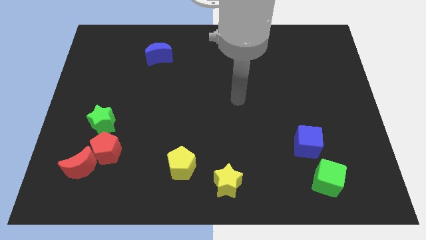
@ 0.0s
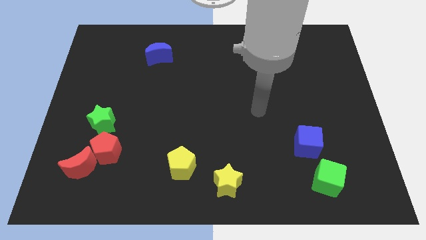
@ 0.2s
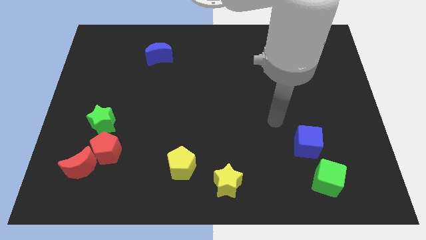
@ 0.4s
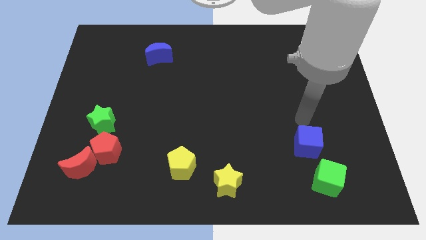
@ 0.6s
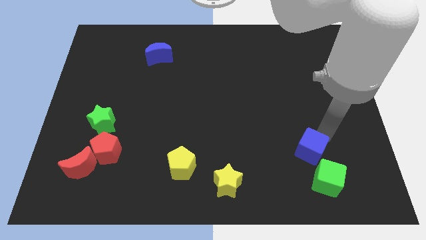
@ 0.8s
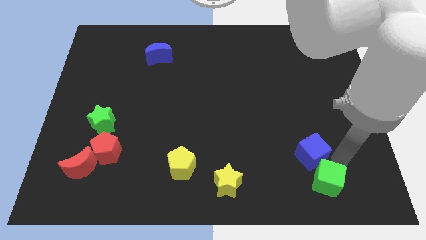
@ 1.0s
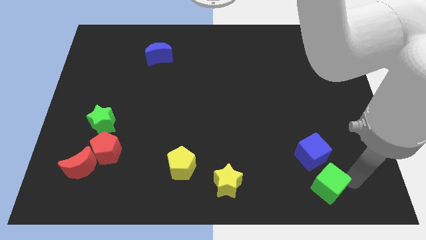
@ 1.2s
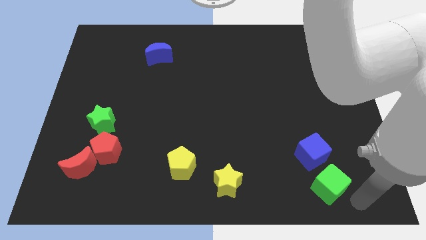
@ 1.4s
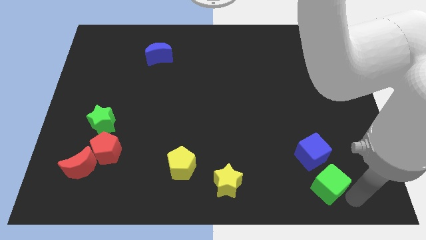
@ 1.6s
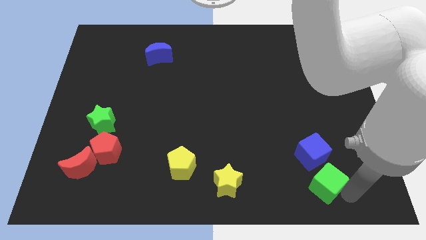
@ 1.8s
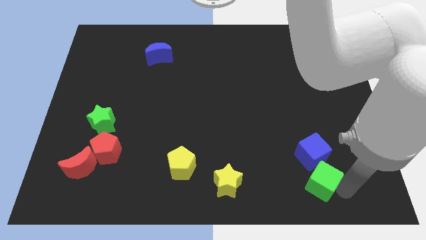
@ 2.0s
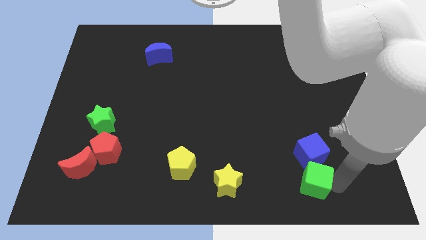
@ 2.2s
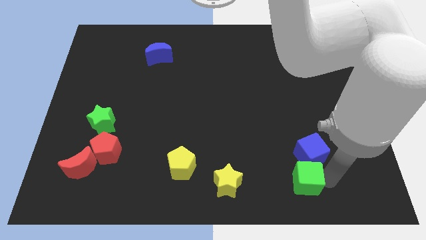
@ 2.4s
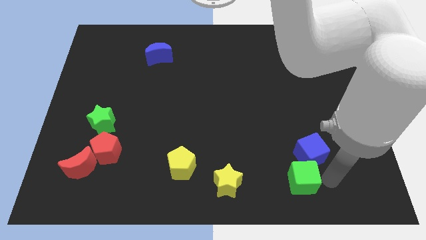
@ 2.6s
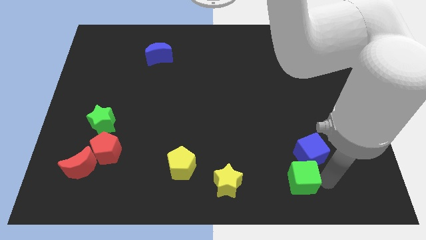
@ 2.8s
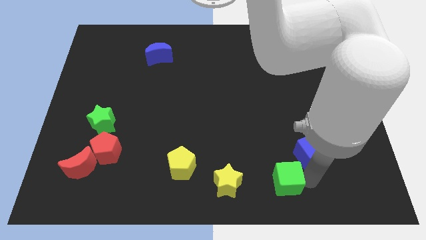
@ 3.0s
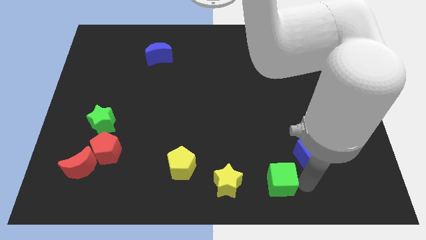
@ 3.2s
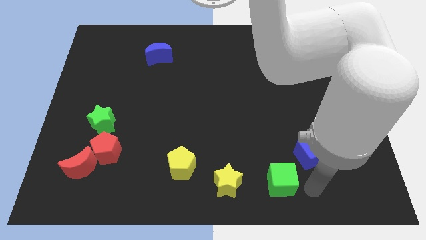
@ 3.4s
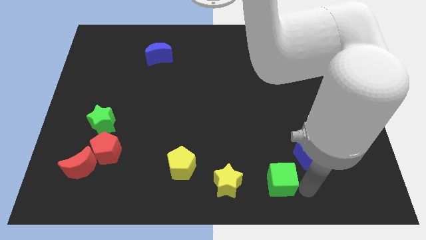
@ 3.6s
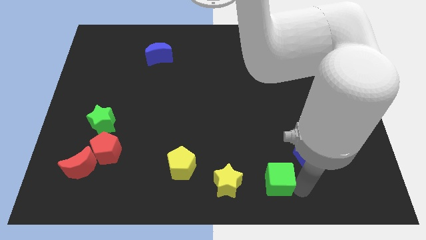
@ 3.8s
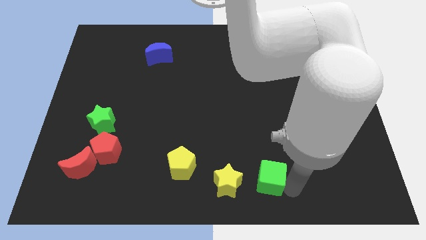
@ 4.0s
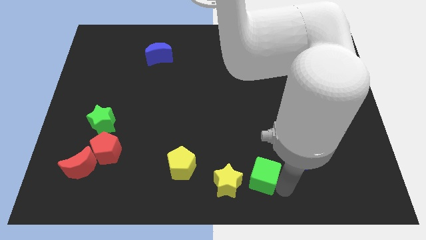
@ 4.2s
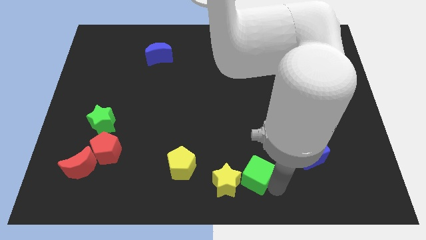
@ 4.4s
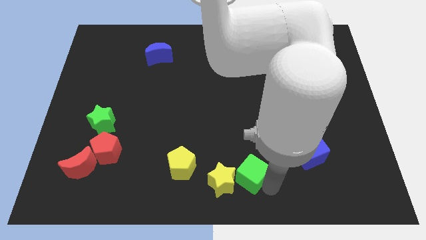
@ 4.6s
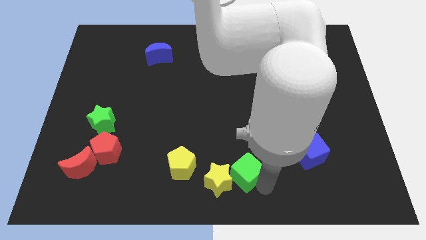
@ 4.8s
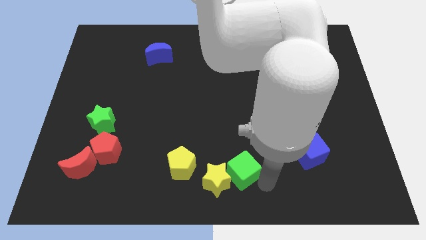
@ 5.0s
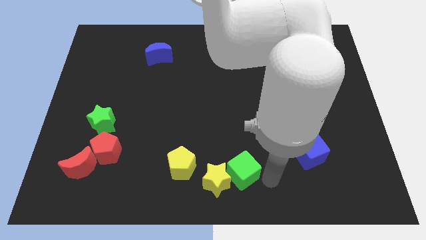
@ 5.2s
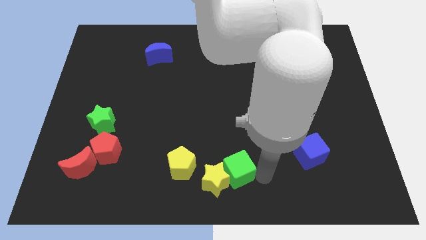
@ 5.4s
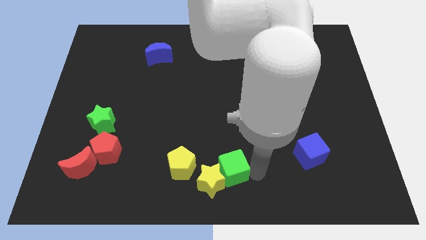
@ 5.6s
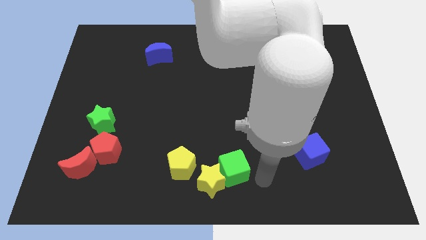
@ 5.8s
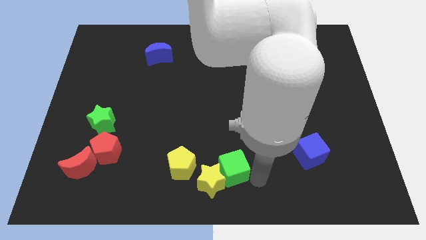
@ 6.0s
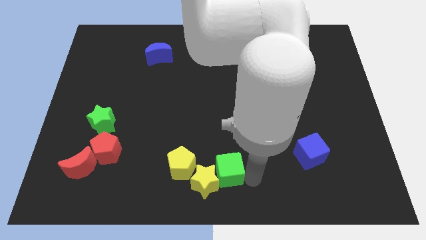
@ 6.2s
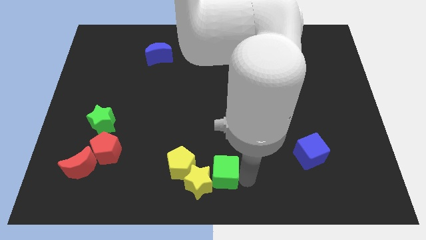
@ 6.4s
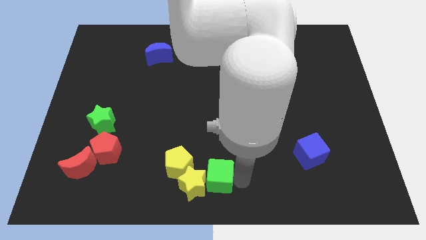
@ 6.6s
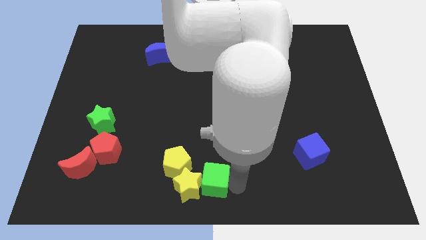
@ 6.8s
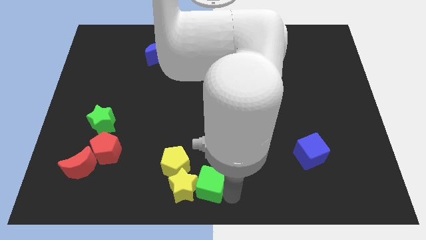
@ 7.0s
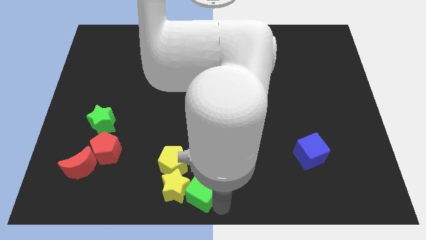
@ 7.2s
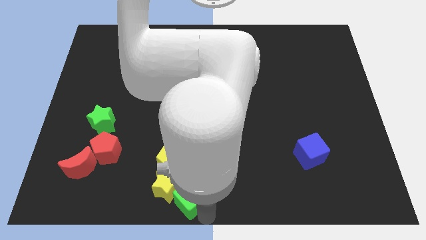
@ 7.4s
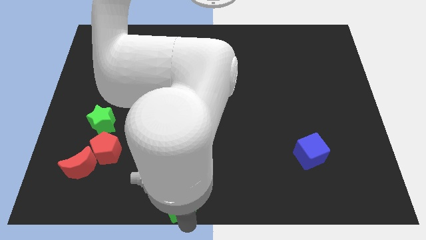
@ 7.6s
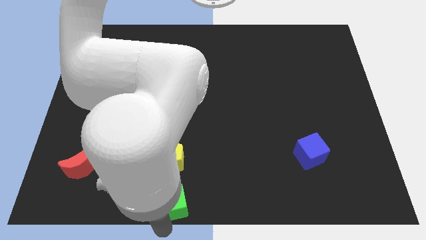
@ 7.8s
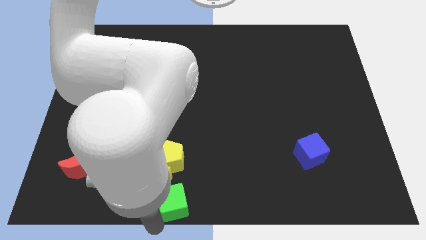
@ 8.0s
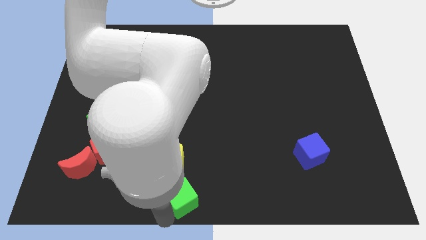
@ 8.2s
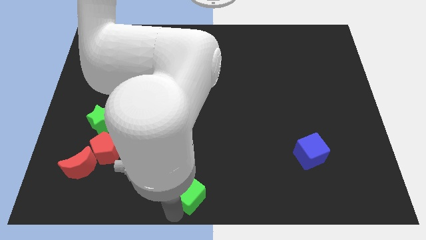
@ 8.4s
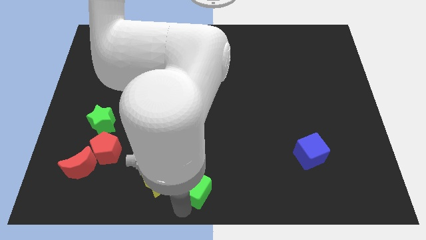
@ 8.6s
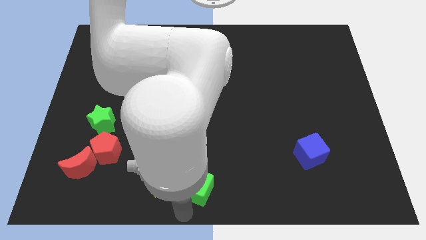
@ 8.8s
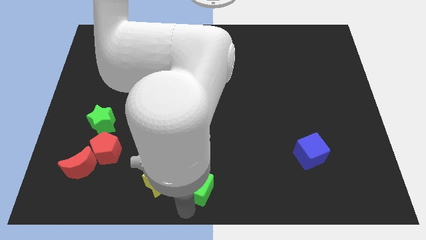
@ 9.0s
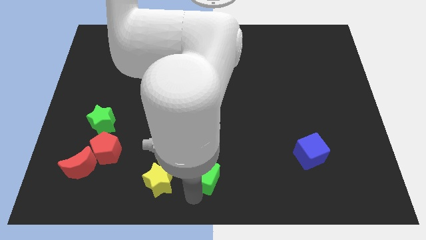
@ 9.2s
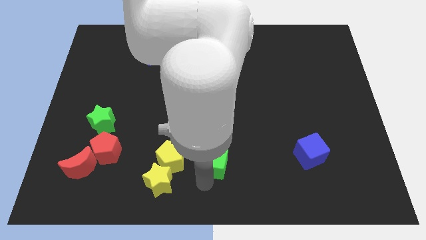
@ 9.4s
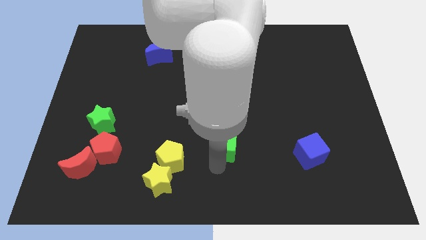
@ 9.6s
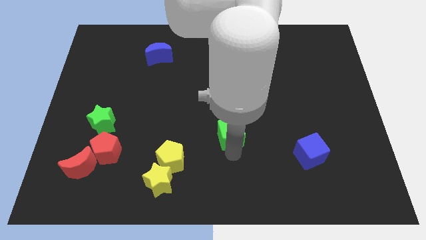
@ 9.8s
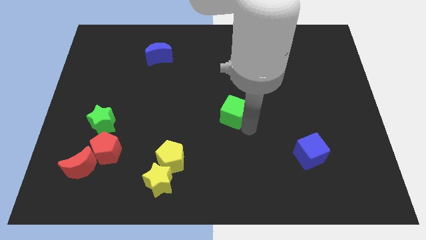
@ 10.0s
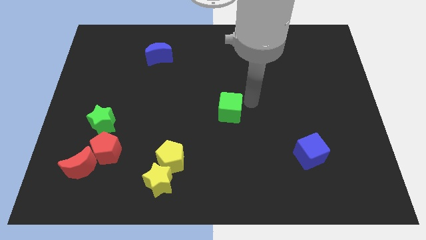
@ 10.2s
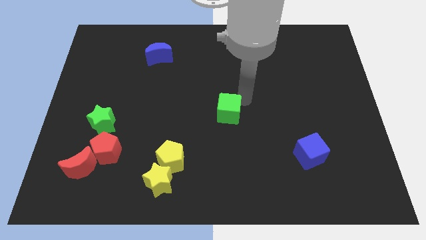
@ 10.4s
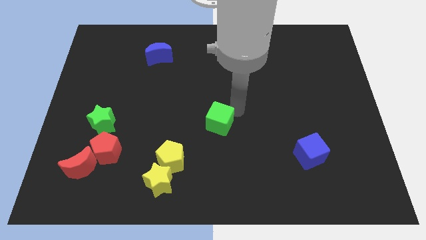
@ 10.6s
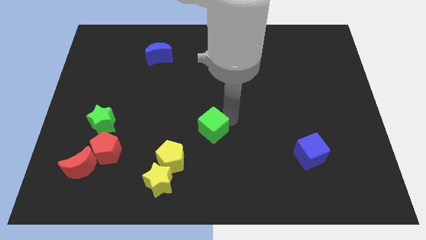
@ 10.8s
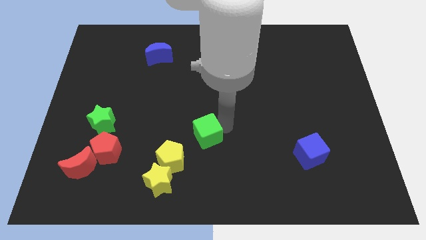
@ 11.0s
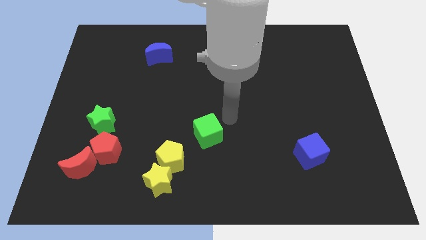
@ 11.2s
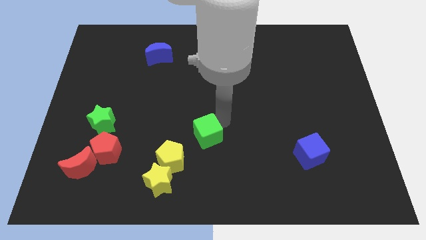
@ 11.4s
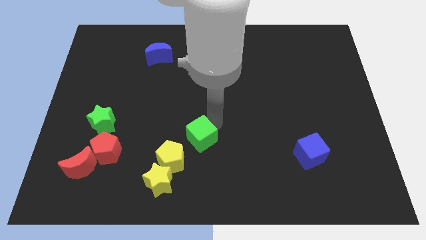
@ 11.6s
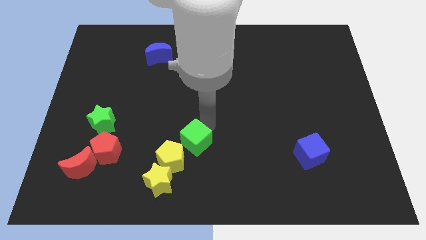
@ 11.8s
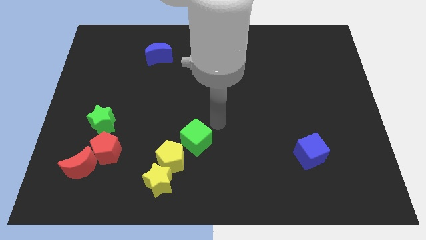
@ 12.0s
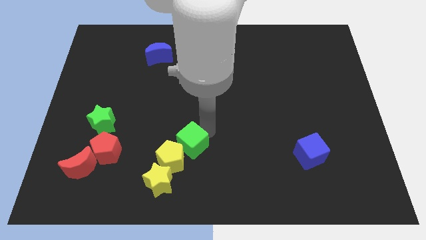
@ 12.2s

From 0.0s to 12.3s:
put the green cube towards the yellow pentagon

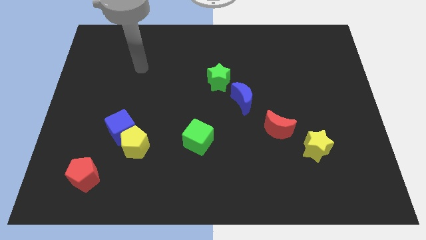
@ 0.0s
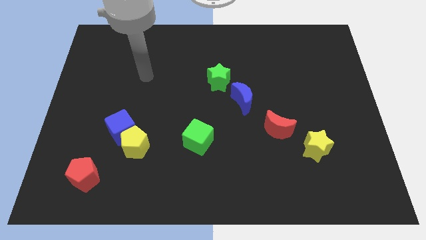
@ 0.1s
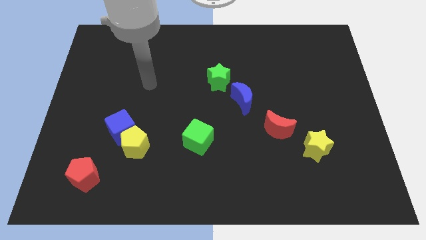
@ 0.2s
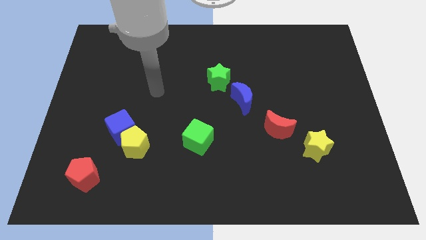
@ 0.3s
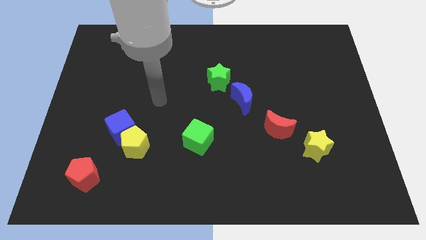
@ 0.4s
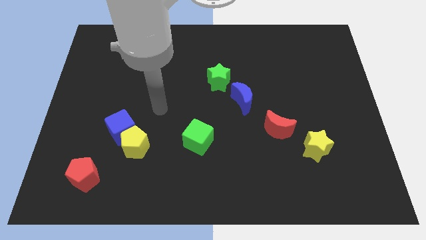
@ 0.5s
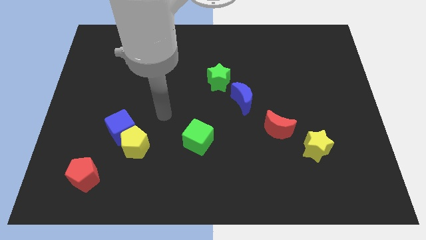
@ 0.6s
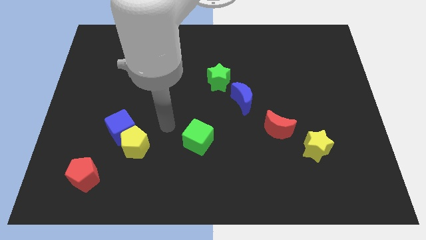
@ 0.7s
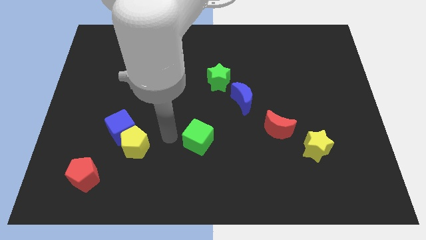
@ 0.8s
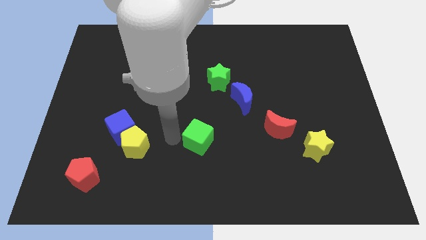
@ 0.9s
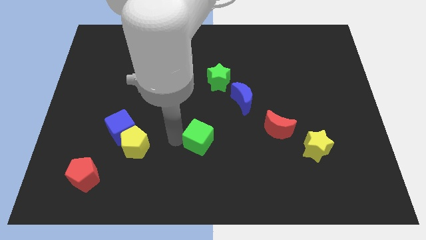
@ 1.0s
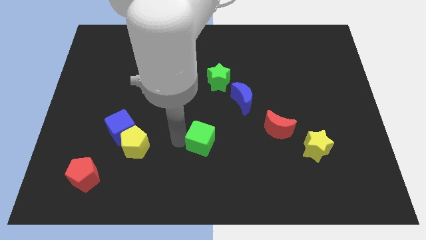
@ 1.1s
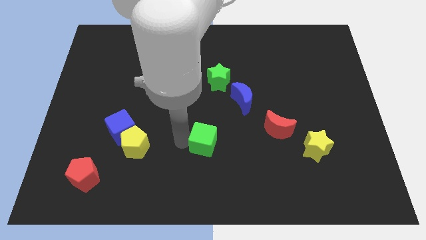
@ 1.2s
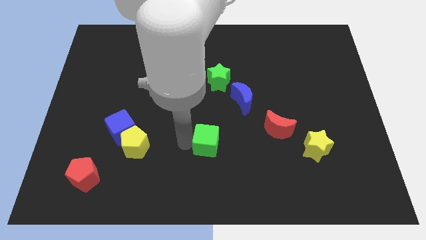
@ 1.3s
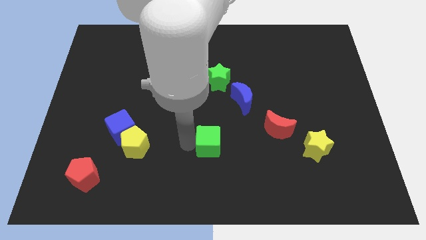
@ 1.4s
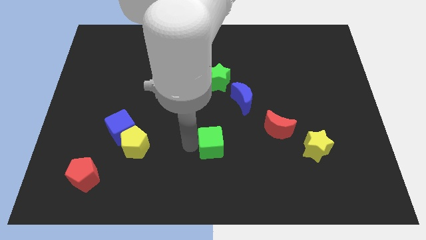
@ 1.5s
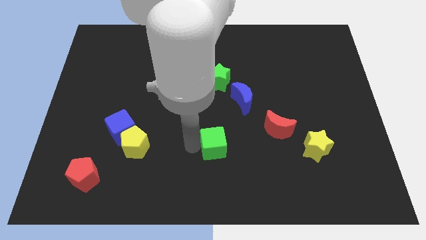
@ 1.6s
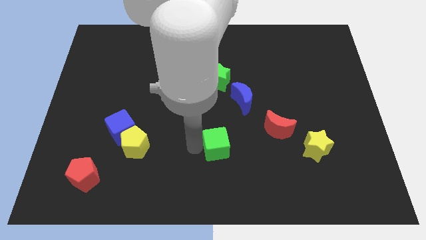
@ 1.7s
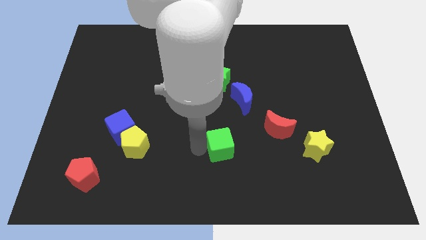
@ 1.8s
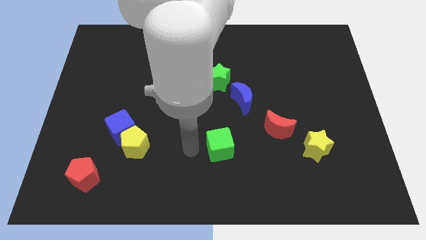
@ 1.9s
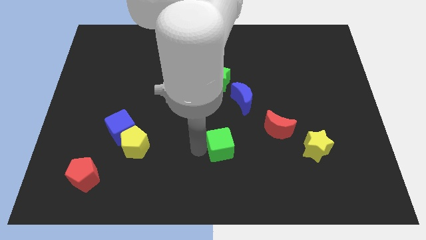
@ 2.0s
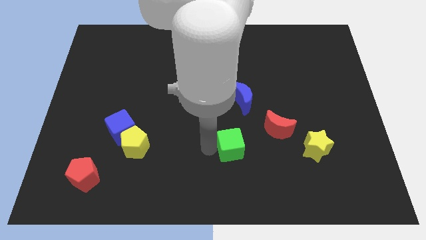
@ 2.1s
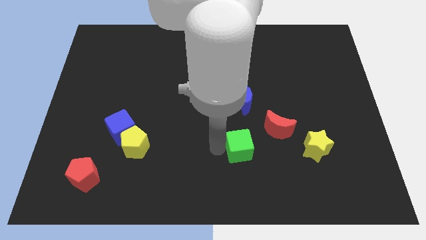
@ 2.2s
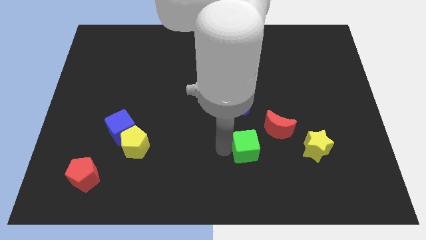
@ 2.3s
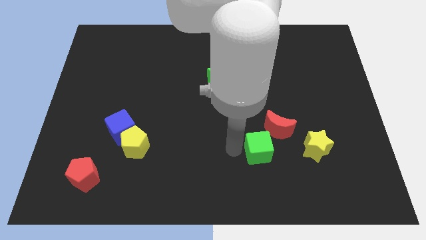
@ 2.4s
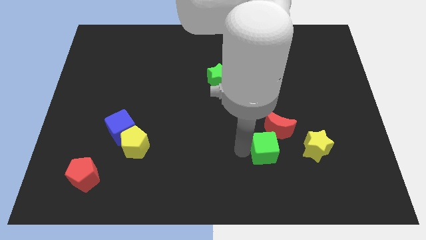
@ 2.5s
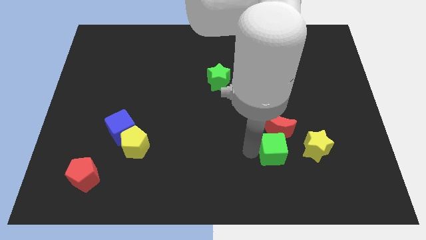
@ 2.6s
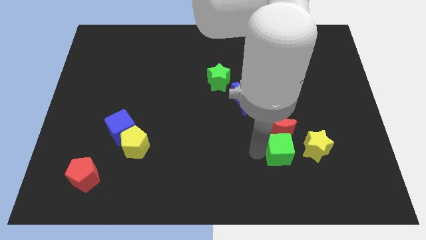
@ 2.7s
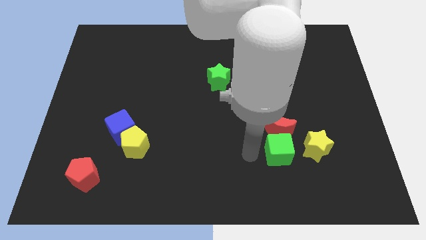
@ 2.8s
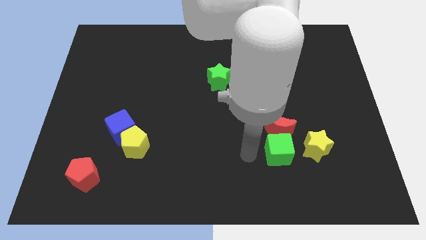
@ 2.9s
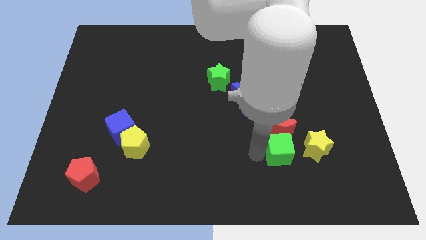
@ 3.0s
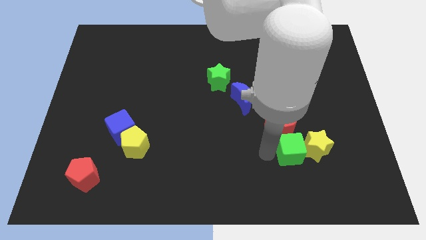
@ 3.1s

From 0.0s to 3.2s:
put the green cube to the yellow star
